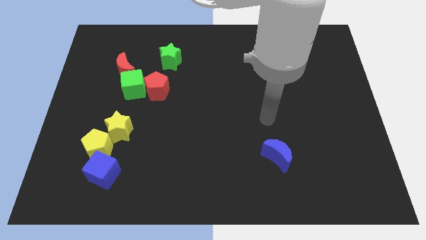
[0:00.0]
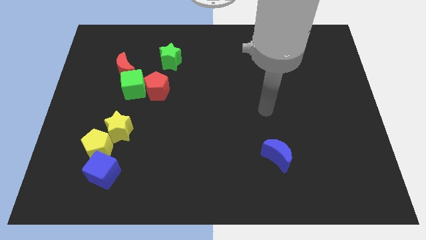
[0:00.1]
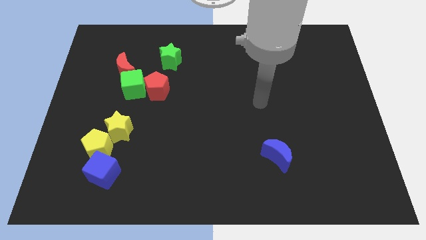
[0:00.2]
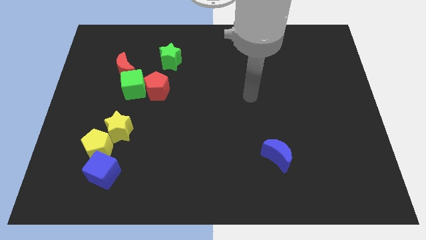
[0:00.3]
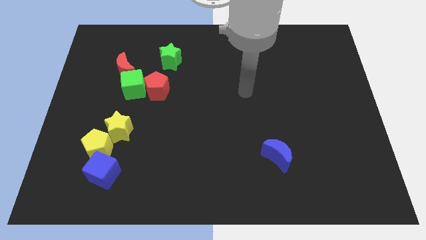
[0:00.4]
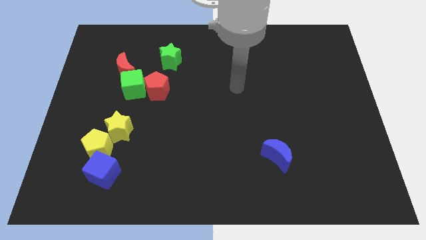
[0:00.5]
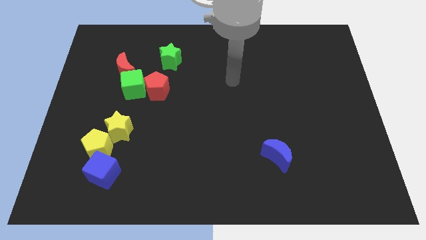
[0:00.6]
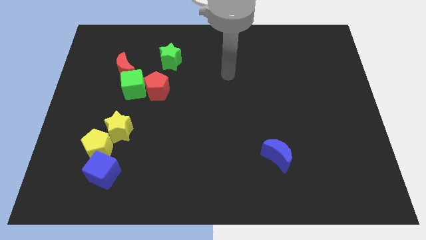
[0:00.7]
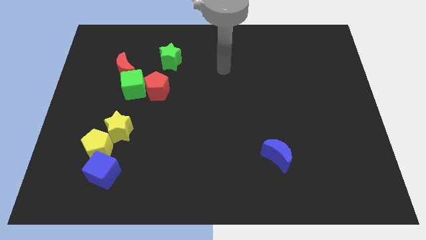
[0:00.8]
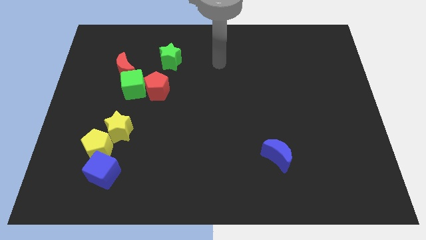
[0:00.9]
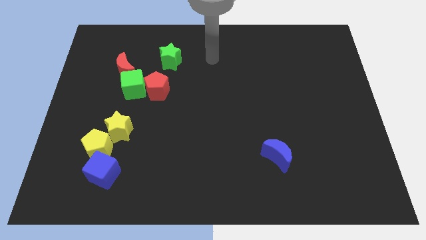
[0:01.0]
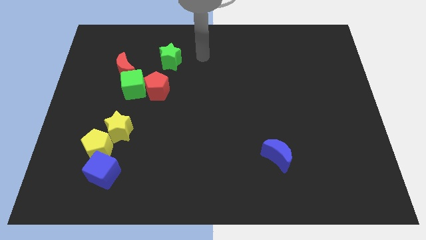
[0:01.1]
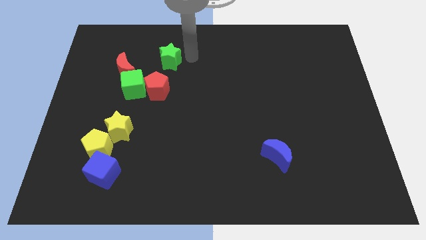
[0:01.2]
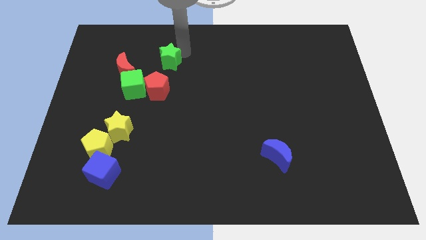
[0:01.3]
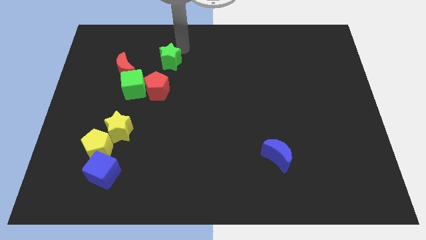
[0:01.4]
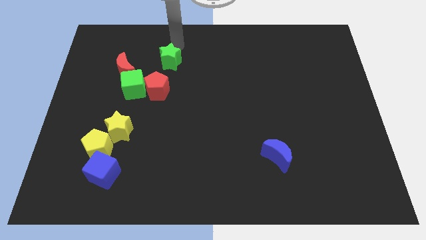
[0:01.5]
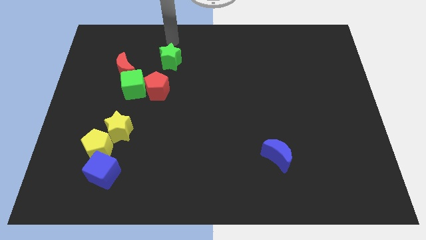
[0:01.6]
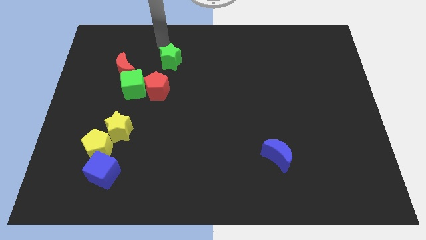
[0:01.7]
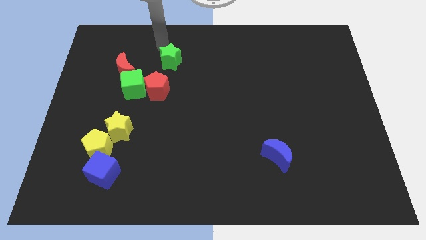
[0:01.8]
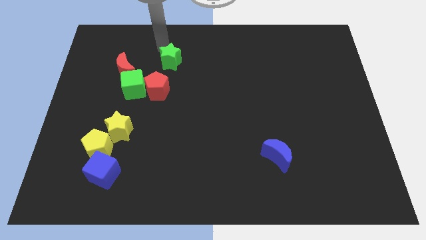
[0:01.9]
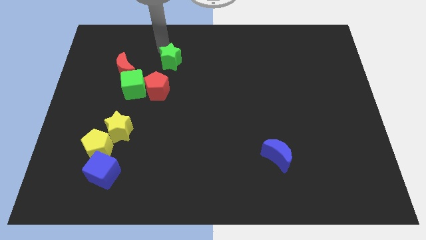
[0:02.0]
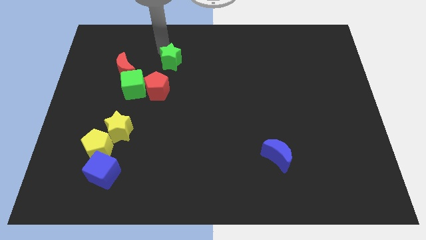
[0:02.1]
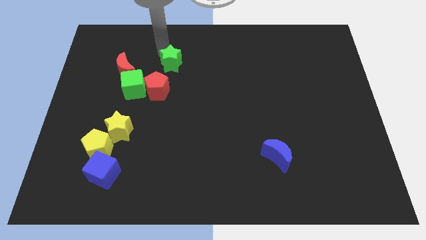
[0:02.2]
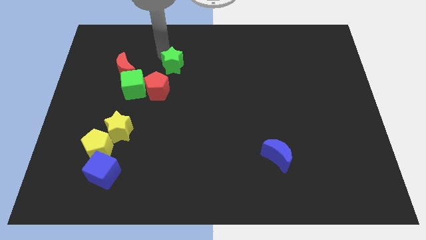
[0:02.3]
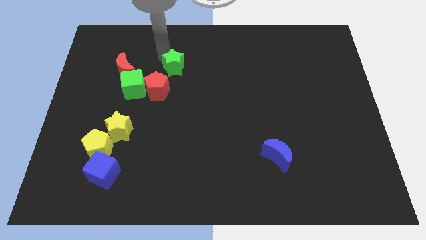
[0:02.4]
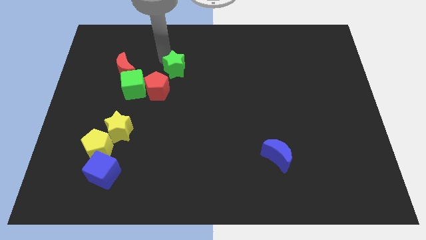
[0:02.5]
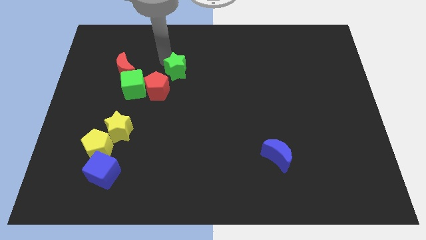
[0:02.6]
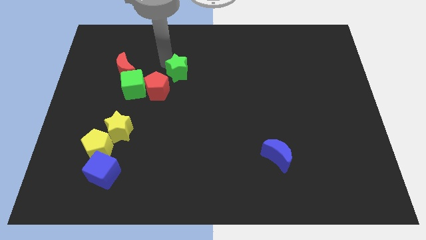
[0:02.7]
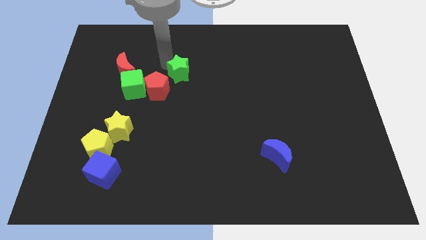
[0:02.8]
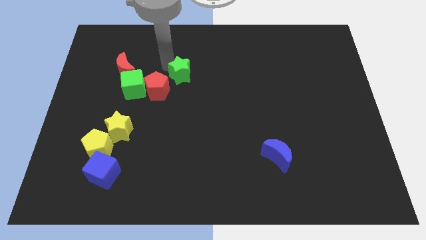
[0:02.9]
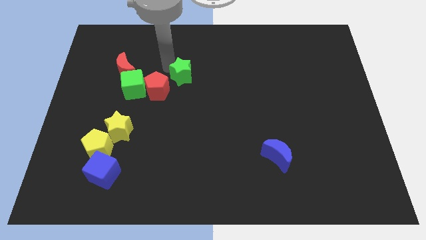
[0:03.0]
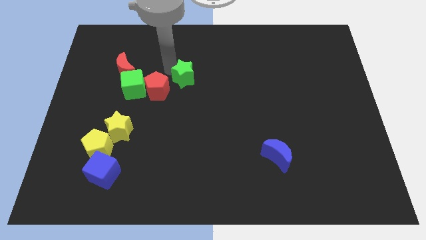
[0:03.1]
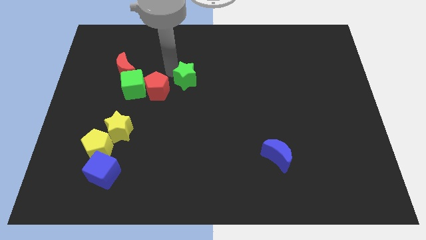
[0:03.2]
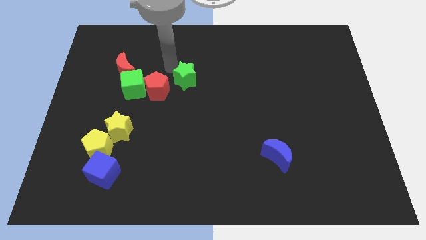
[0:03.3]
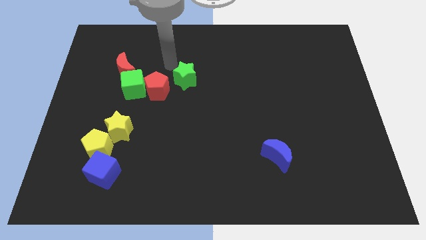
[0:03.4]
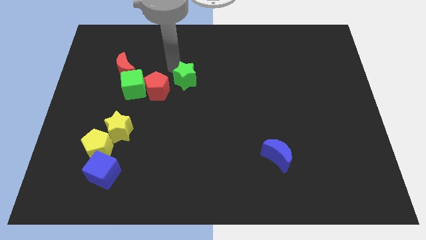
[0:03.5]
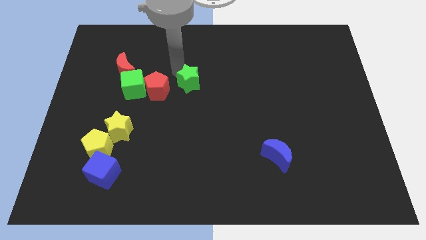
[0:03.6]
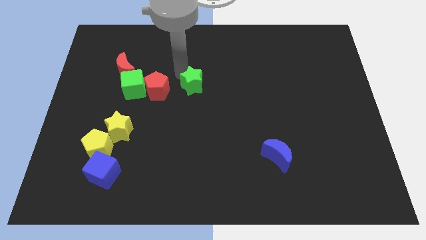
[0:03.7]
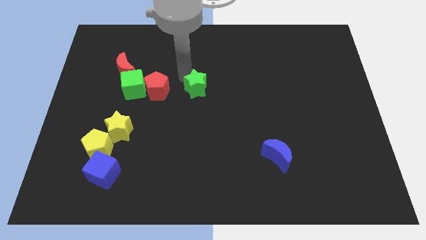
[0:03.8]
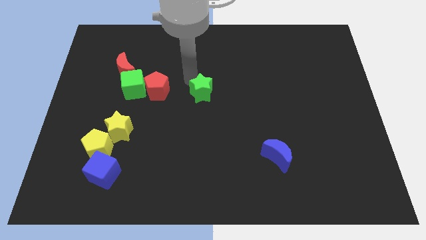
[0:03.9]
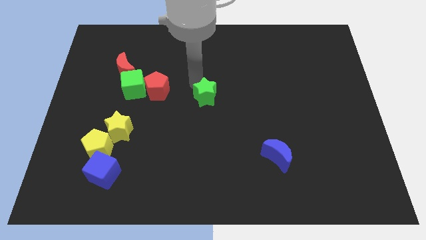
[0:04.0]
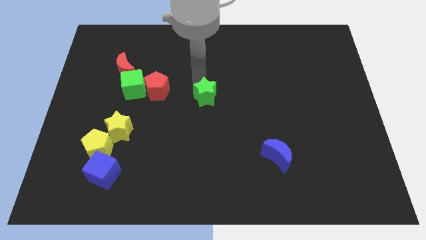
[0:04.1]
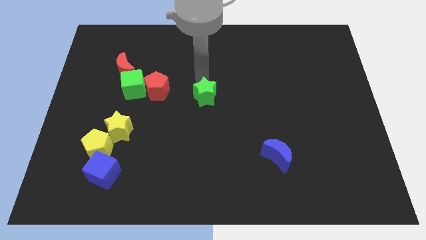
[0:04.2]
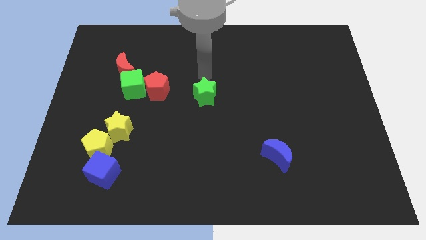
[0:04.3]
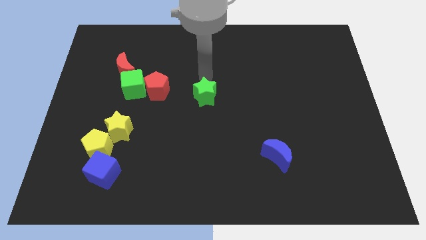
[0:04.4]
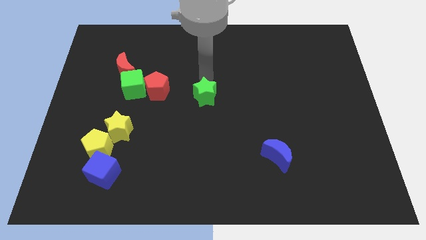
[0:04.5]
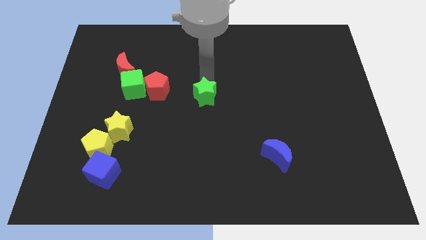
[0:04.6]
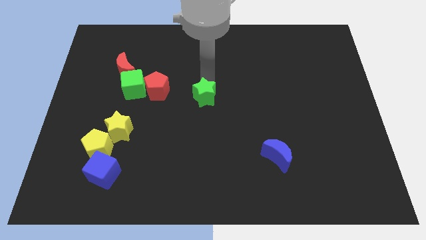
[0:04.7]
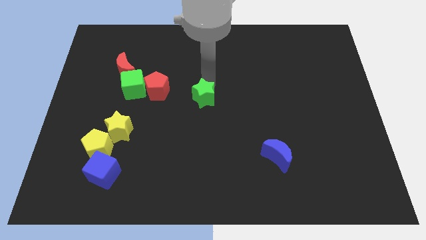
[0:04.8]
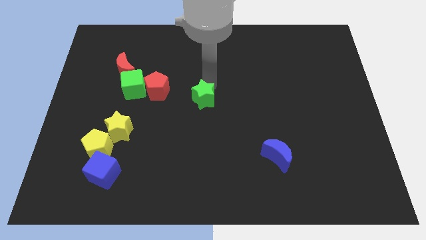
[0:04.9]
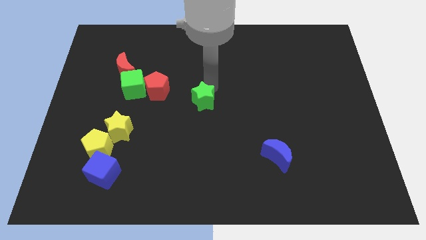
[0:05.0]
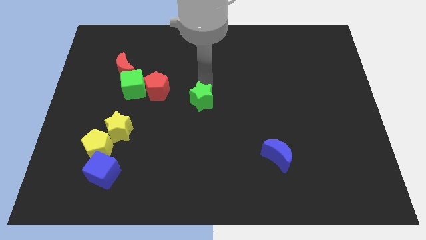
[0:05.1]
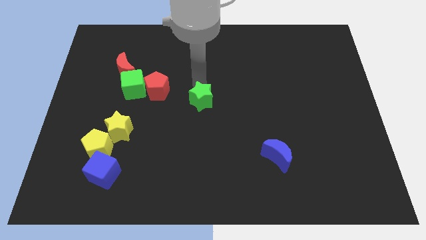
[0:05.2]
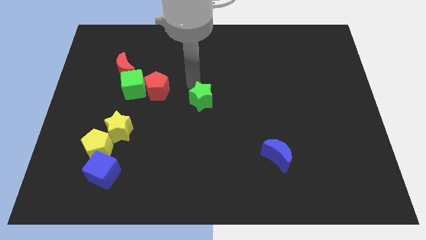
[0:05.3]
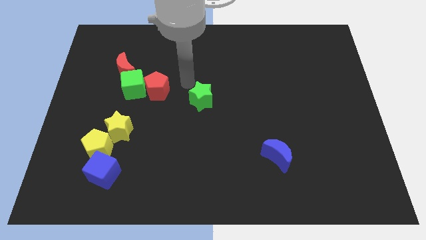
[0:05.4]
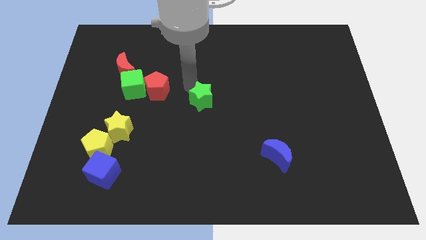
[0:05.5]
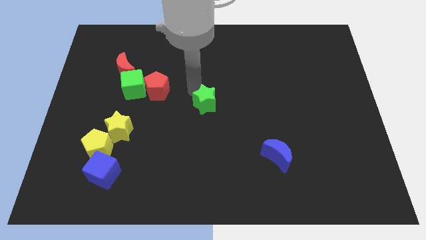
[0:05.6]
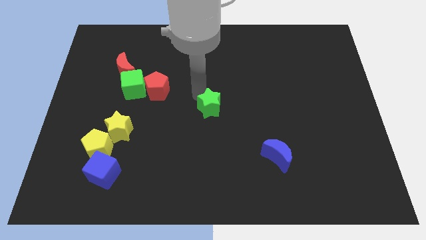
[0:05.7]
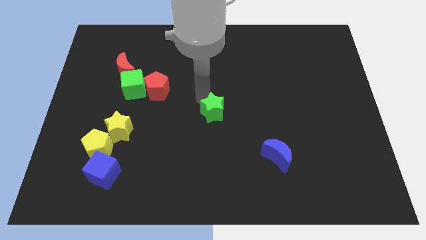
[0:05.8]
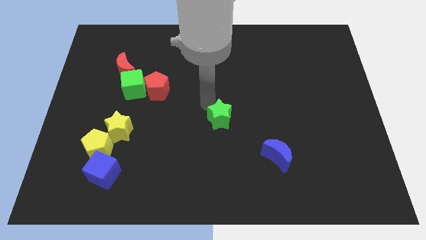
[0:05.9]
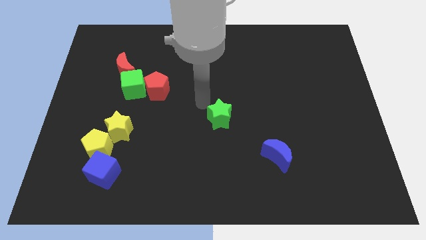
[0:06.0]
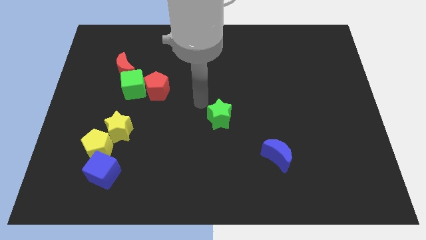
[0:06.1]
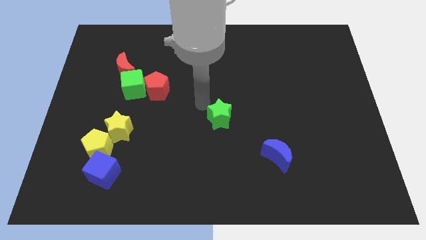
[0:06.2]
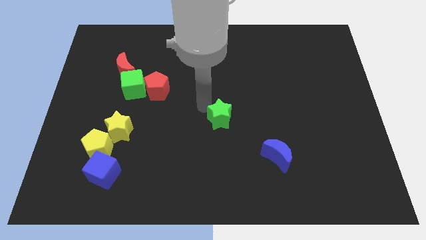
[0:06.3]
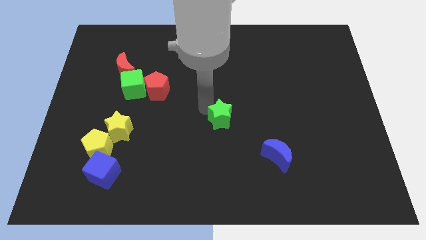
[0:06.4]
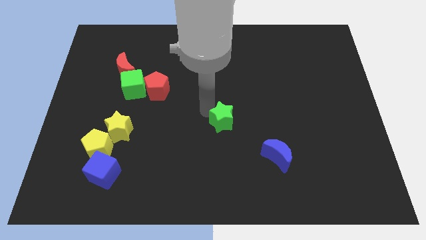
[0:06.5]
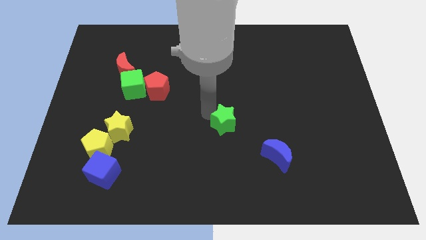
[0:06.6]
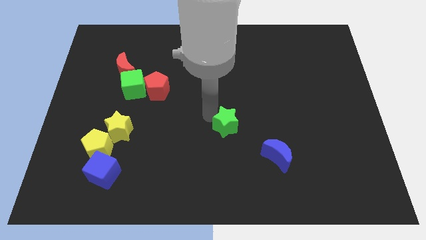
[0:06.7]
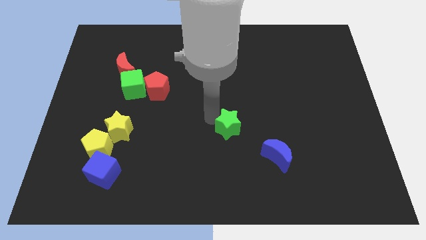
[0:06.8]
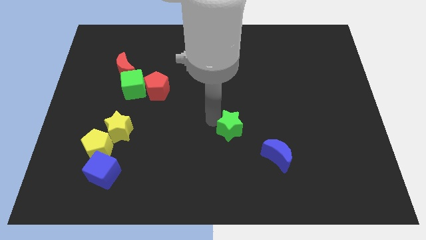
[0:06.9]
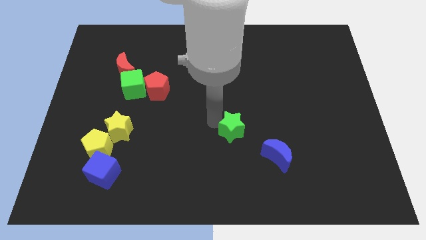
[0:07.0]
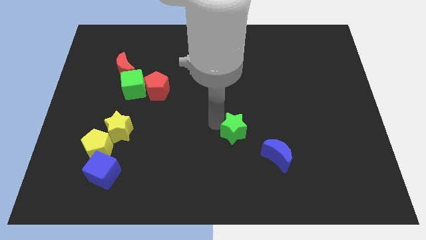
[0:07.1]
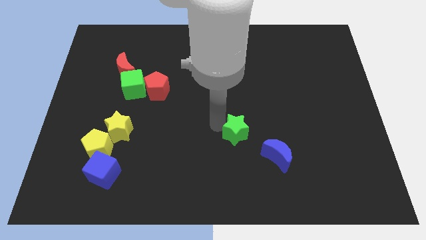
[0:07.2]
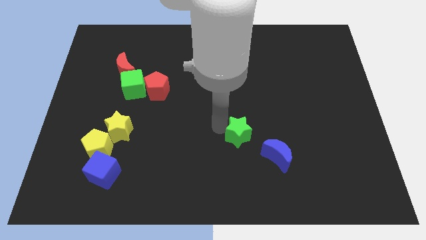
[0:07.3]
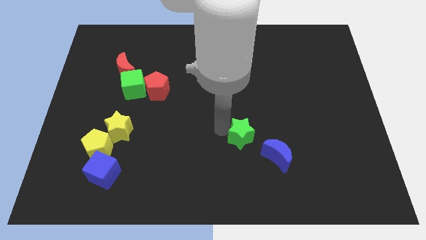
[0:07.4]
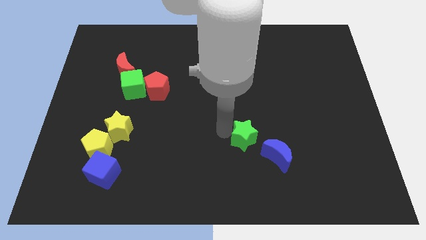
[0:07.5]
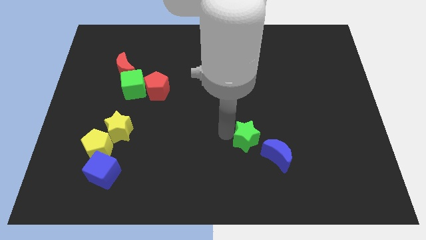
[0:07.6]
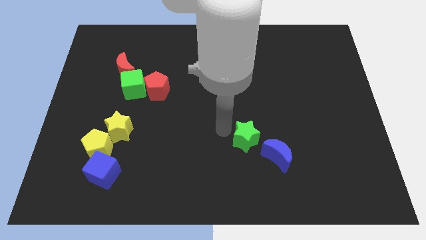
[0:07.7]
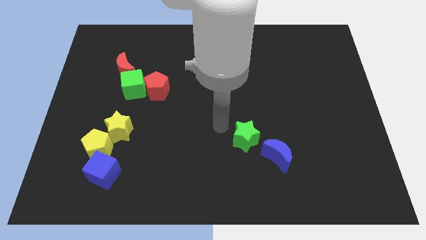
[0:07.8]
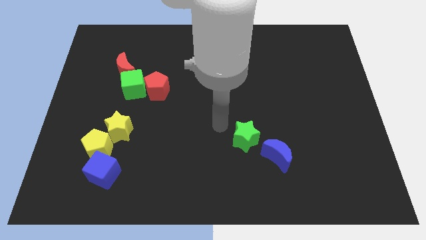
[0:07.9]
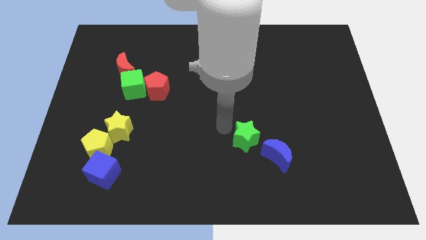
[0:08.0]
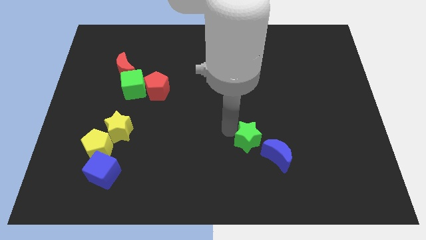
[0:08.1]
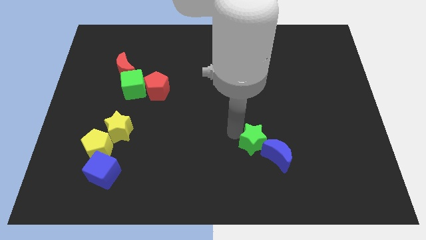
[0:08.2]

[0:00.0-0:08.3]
put the green star close to the blue moon
